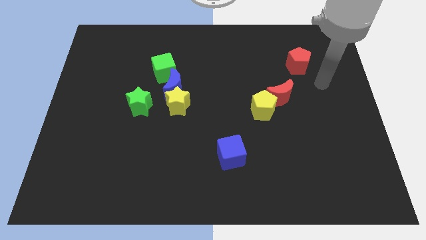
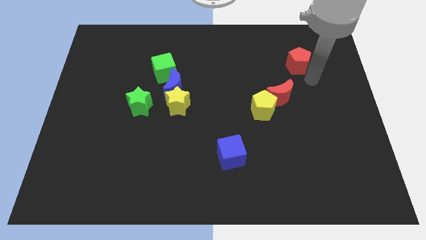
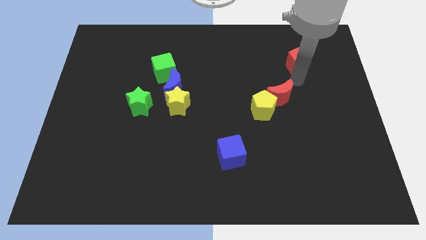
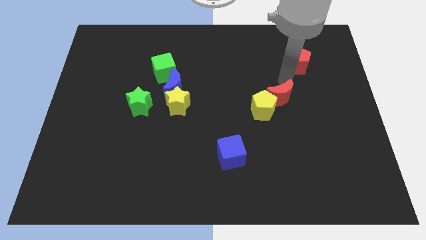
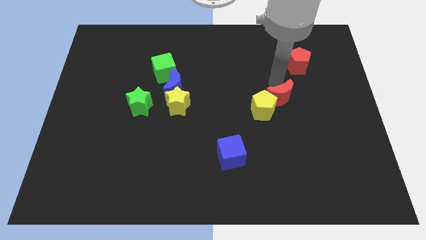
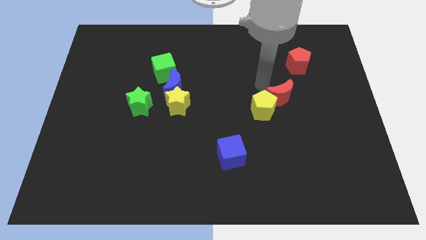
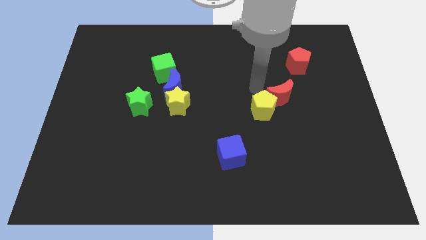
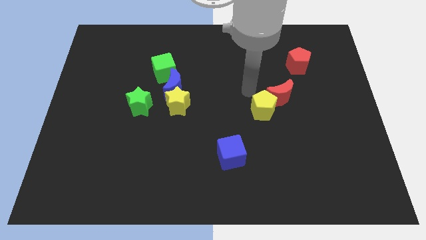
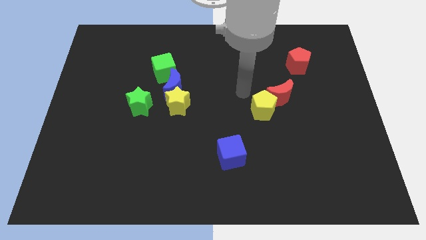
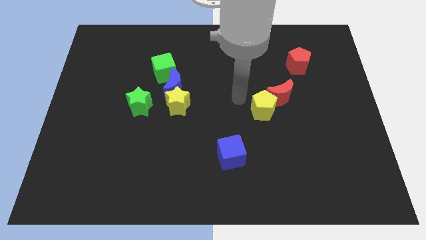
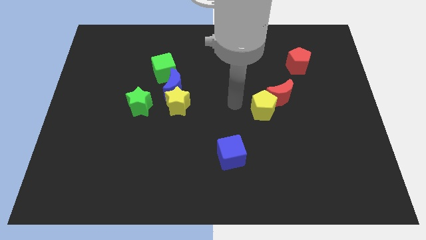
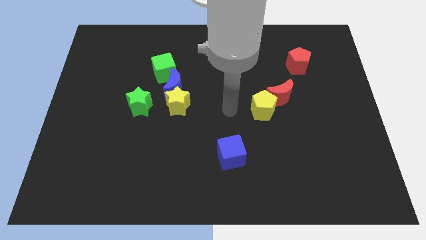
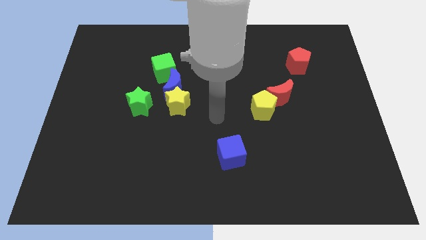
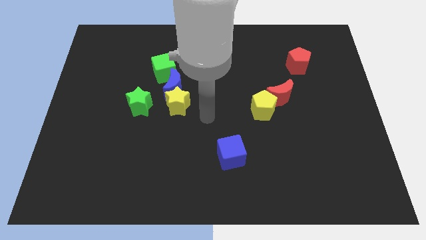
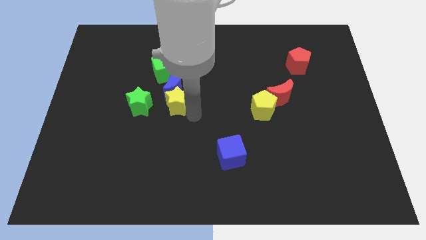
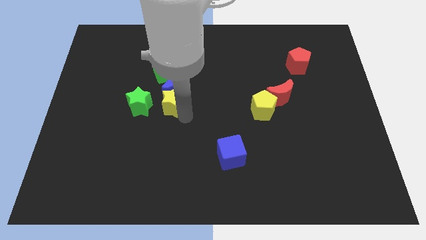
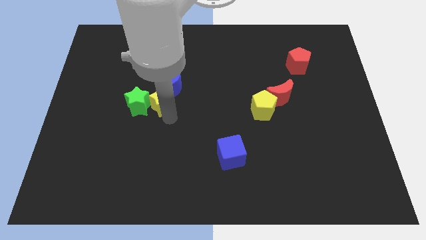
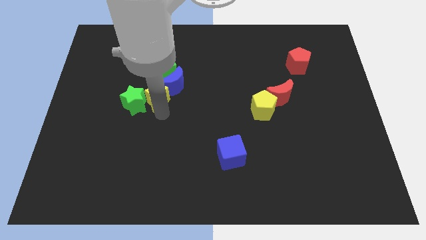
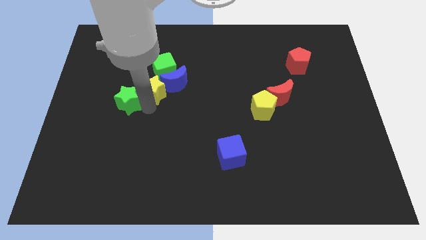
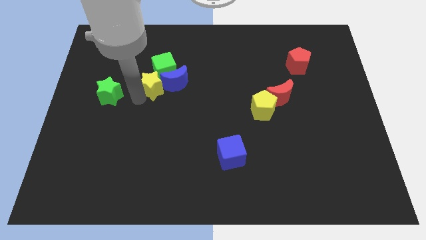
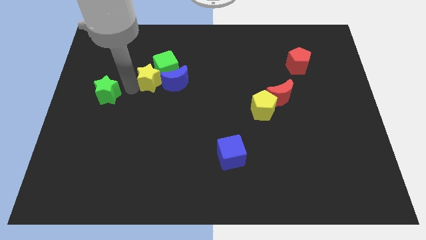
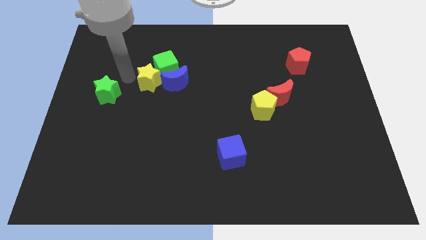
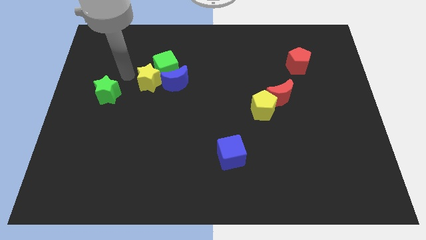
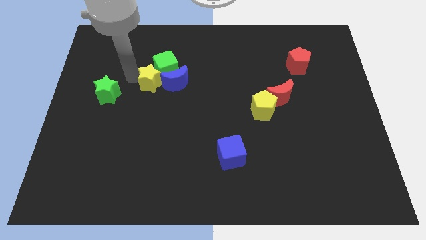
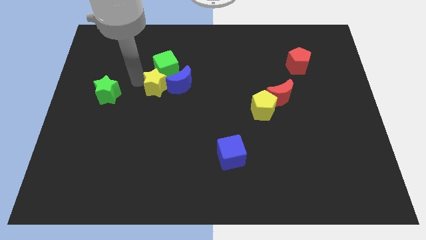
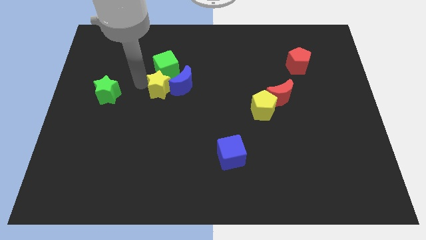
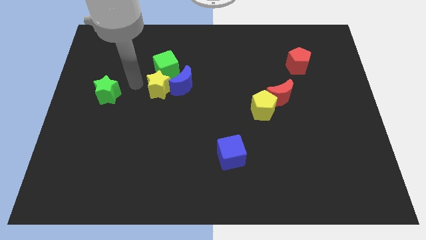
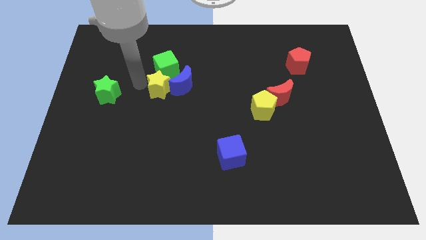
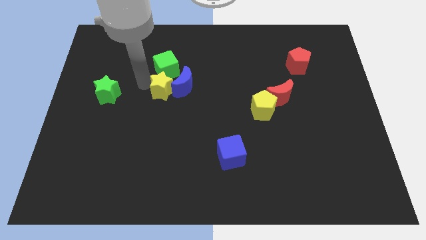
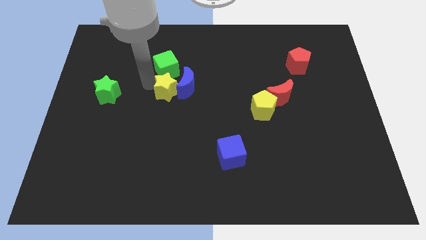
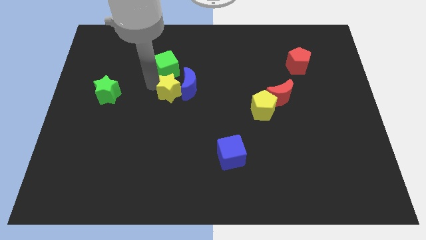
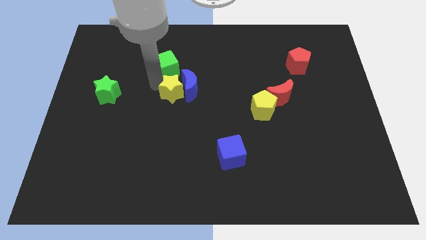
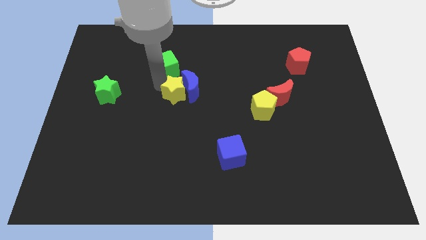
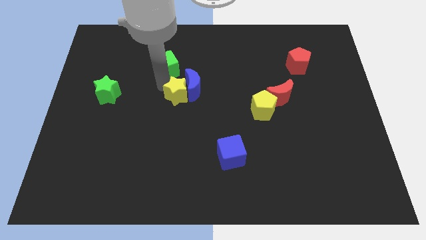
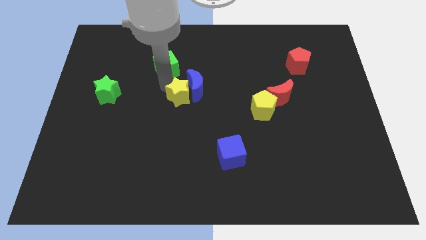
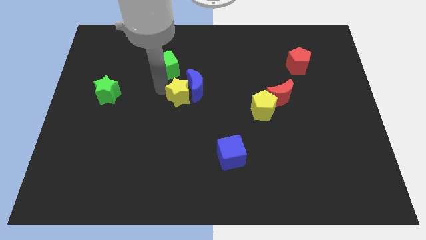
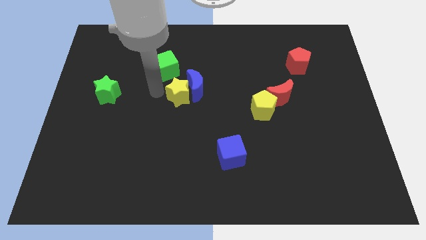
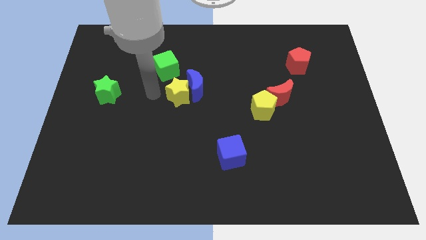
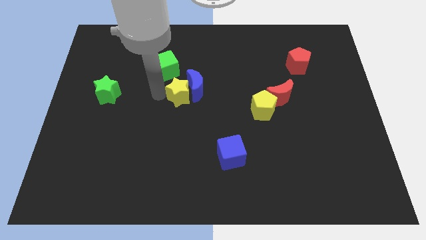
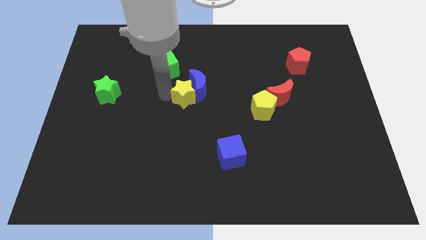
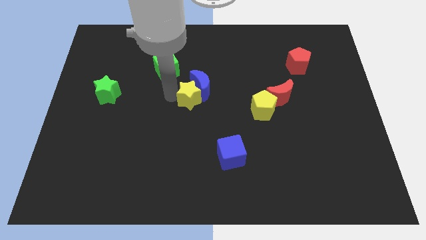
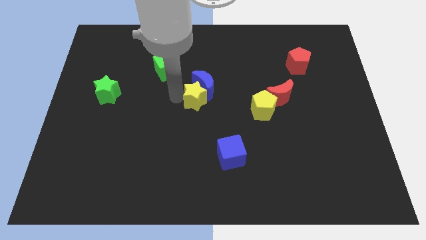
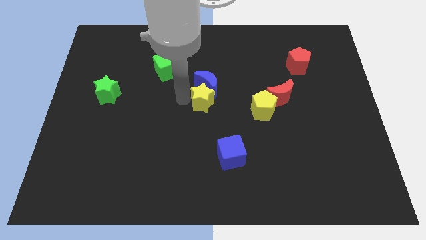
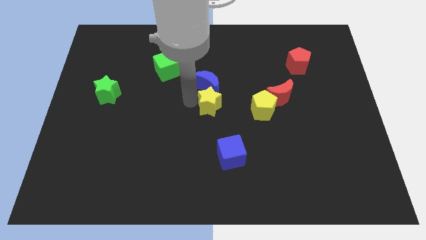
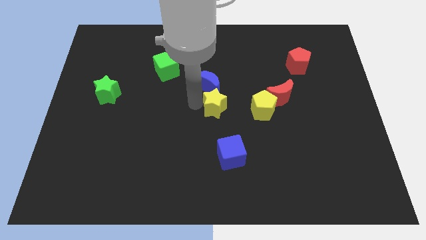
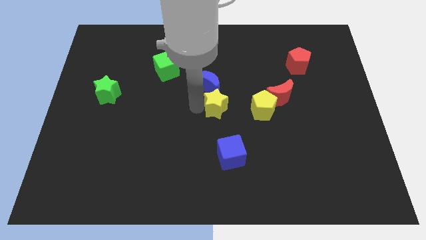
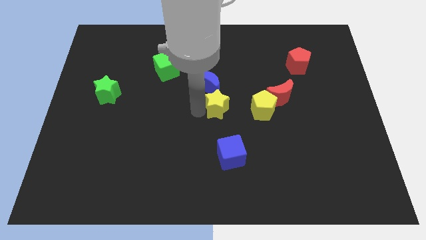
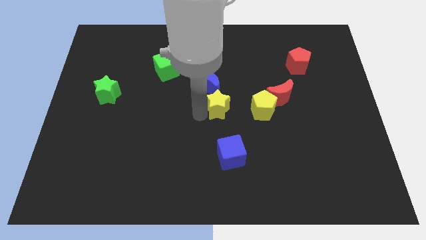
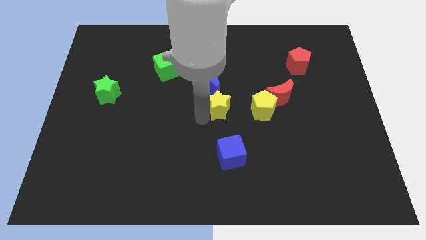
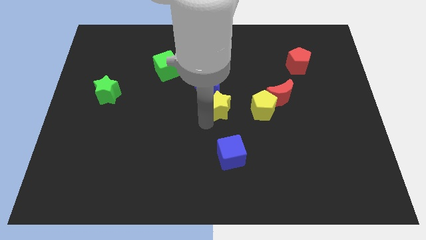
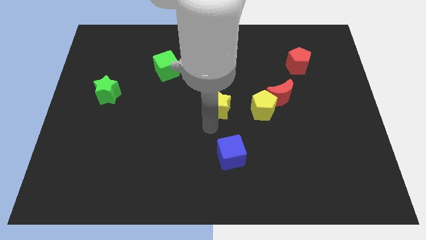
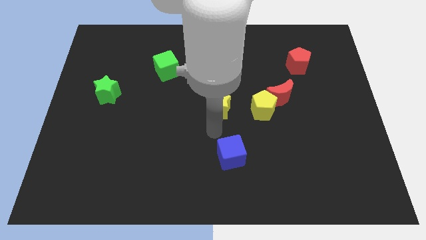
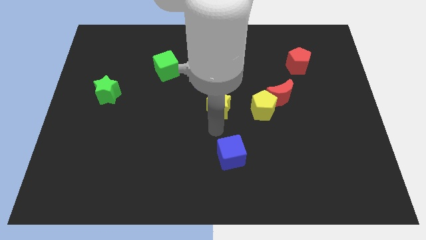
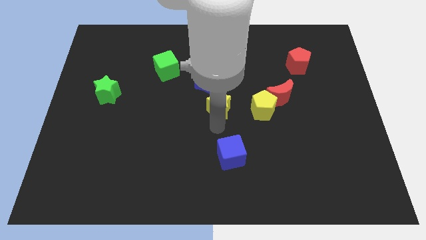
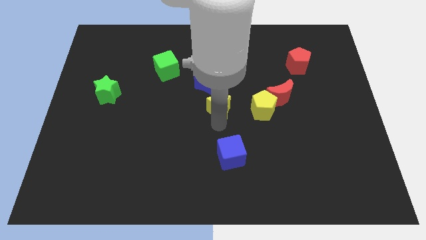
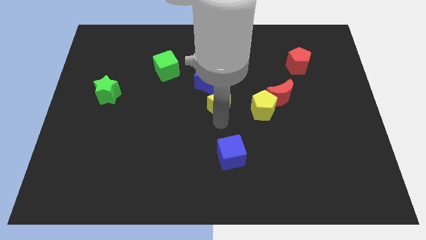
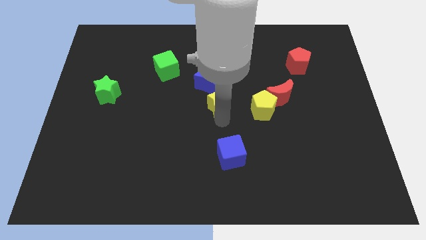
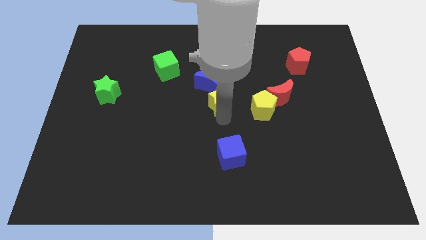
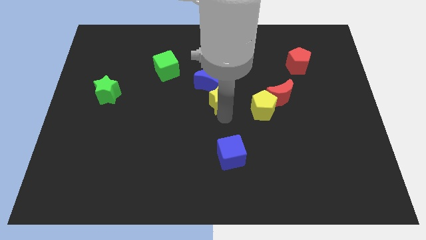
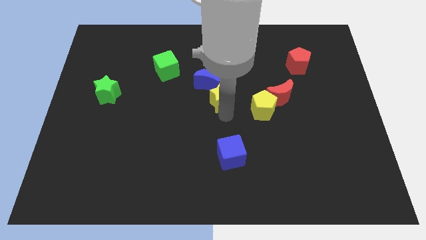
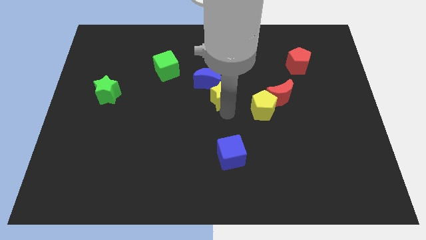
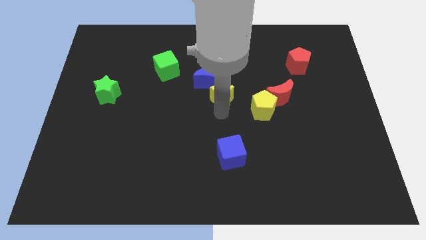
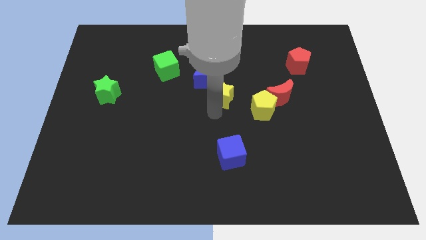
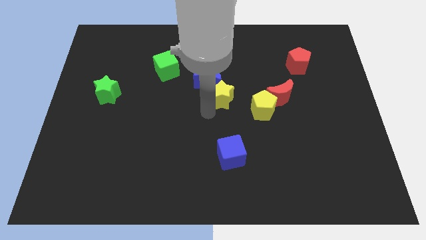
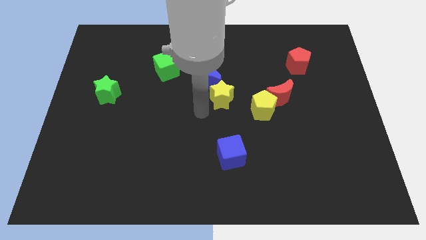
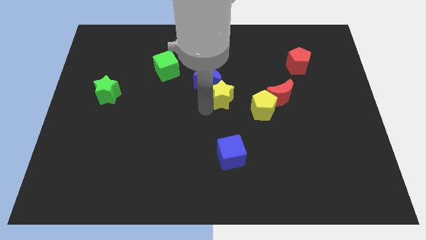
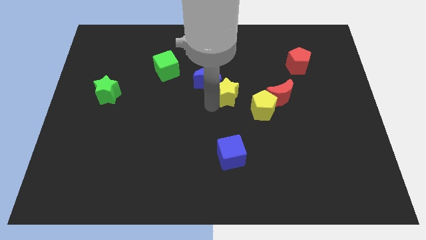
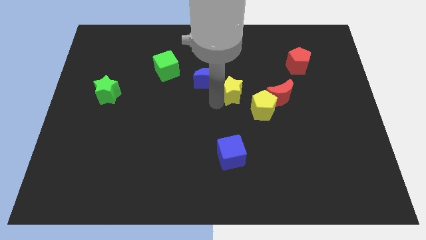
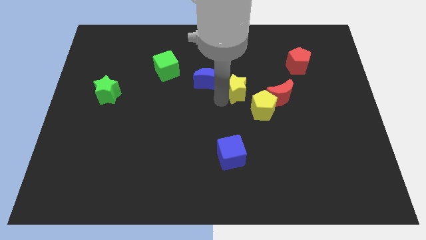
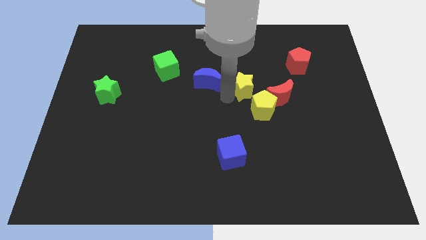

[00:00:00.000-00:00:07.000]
slide the yellow star diagonally up and to the left of the red moon
